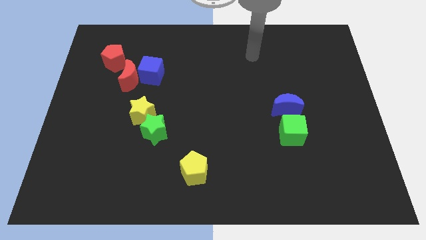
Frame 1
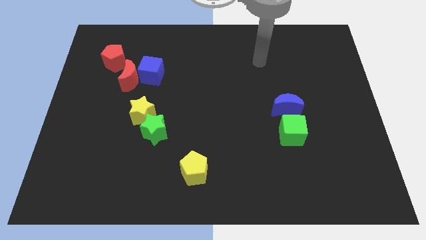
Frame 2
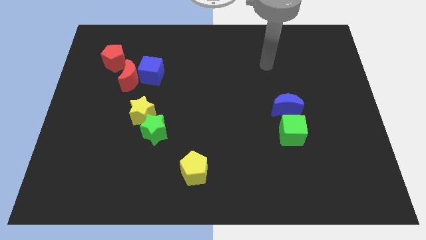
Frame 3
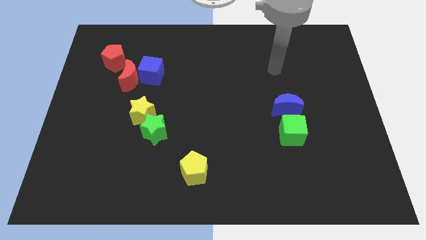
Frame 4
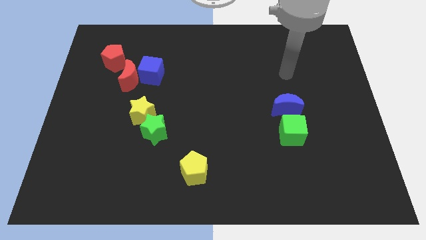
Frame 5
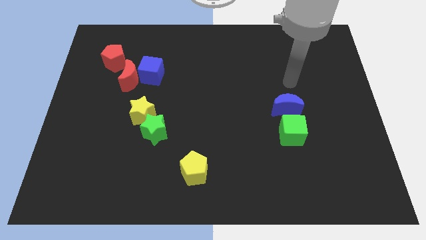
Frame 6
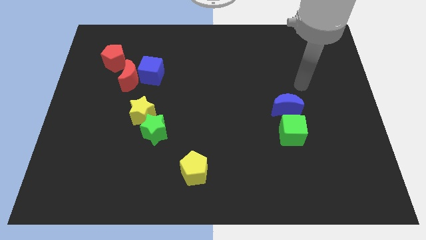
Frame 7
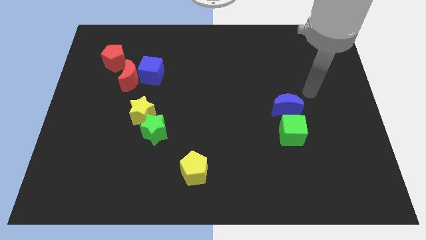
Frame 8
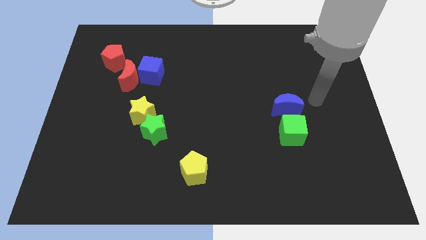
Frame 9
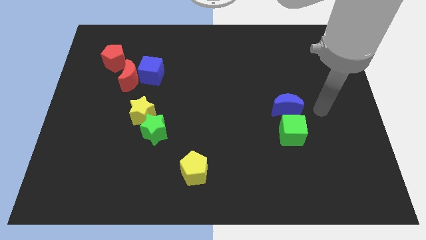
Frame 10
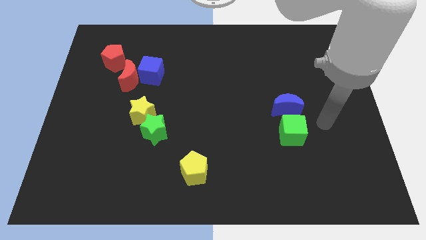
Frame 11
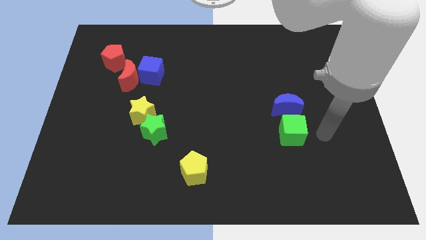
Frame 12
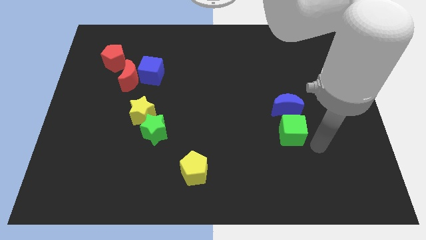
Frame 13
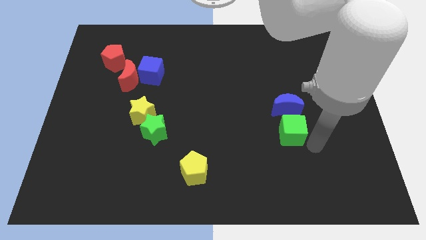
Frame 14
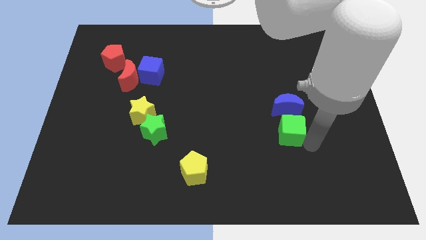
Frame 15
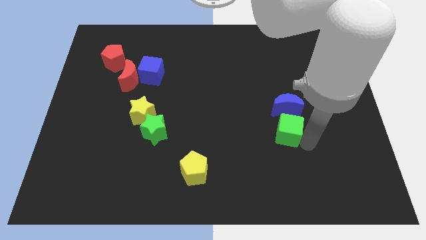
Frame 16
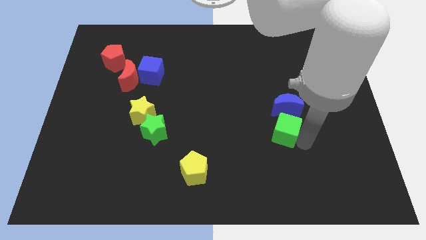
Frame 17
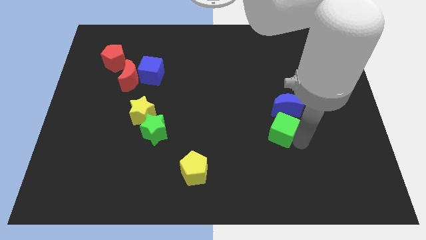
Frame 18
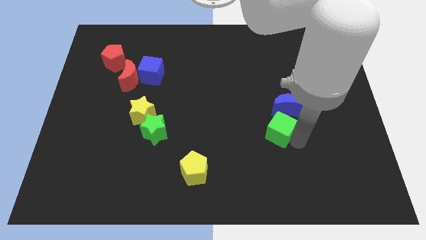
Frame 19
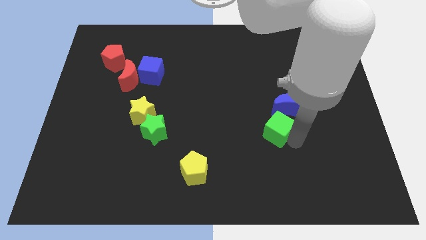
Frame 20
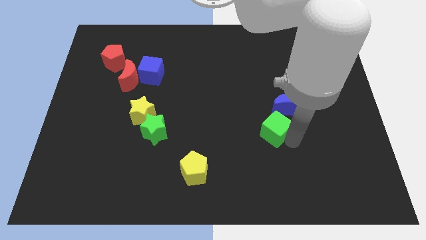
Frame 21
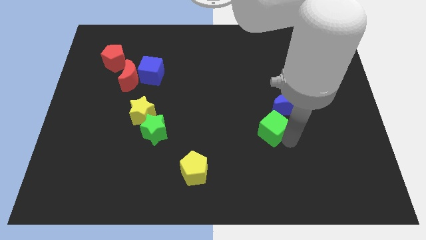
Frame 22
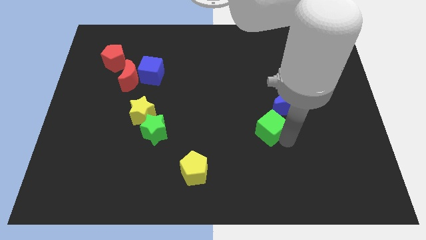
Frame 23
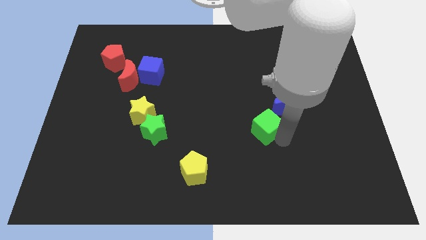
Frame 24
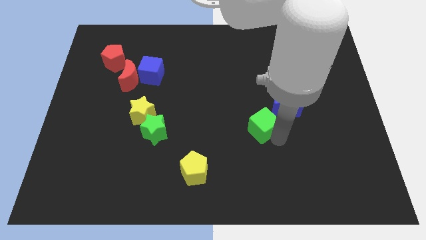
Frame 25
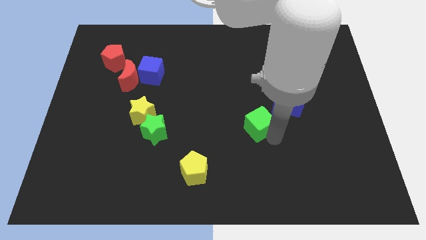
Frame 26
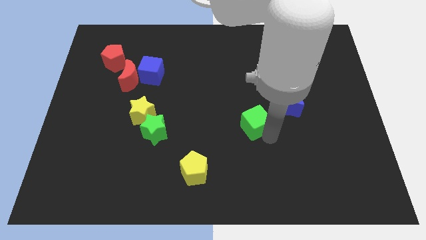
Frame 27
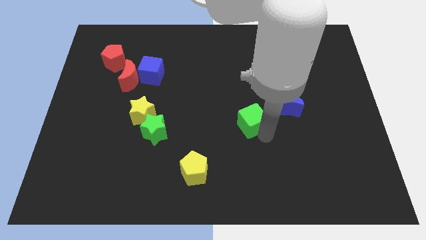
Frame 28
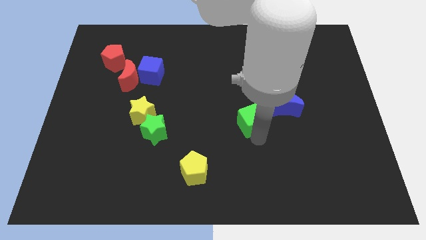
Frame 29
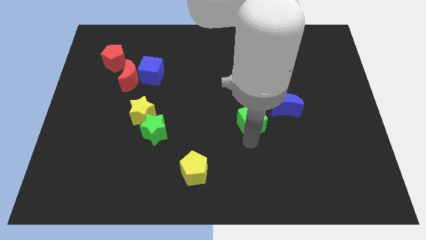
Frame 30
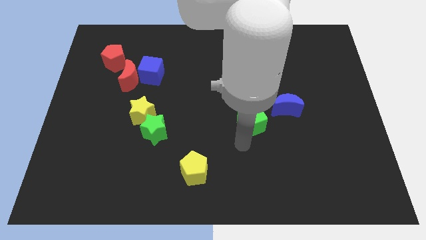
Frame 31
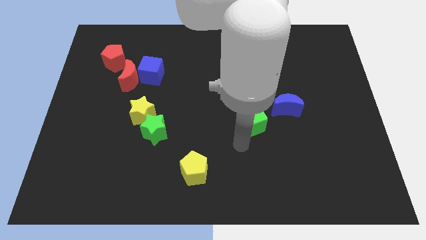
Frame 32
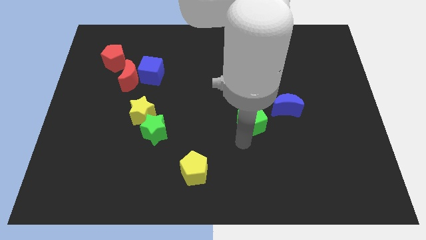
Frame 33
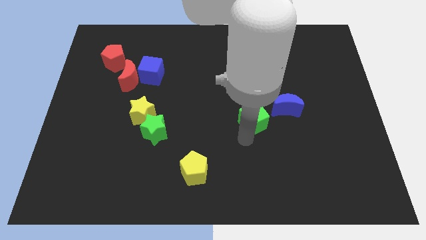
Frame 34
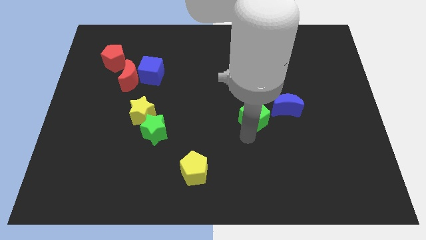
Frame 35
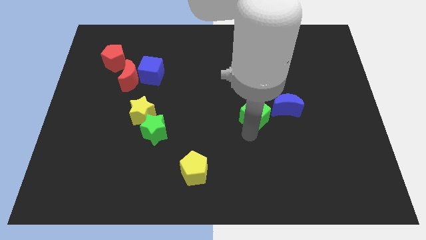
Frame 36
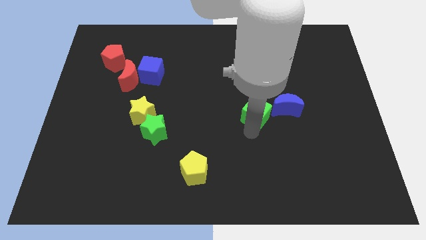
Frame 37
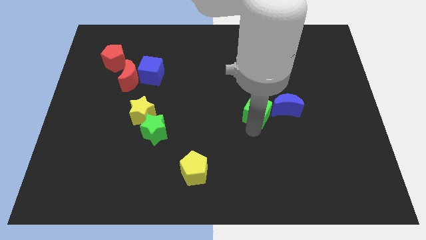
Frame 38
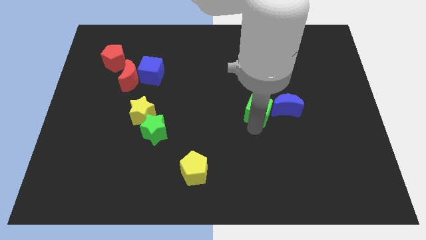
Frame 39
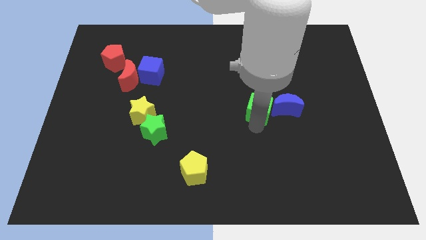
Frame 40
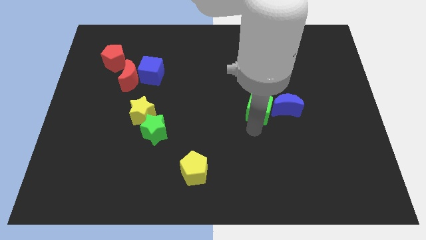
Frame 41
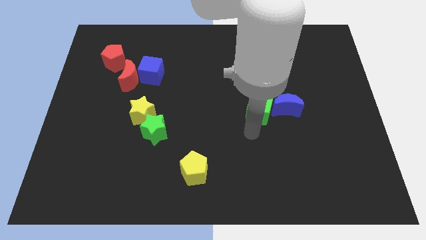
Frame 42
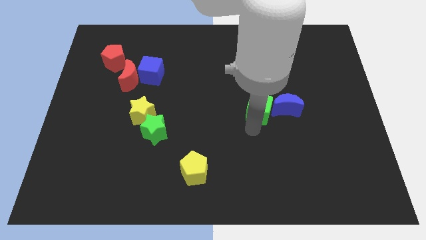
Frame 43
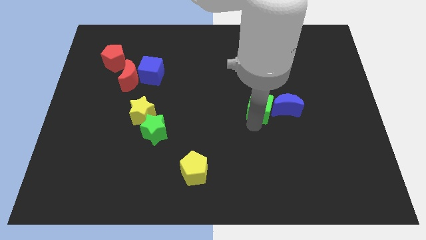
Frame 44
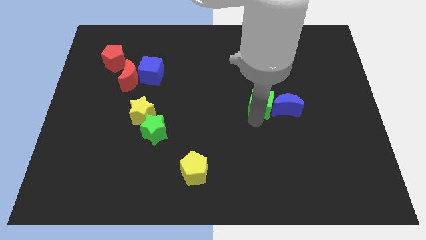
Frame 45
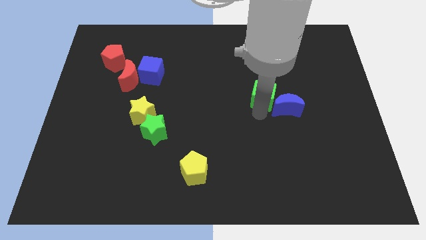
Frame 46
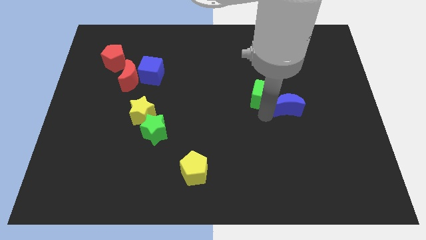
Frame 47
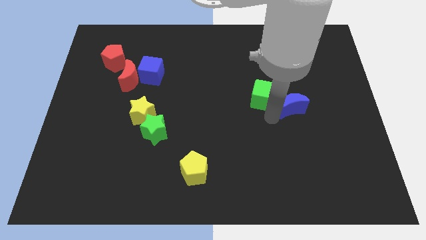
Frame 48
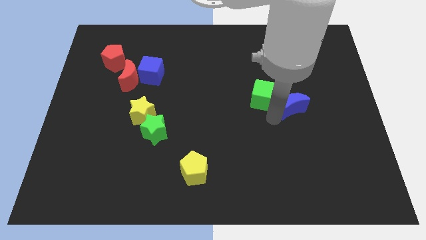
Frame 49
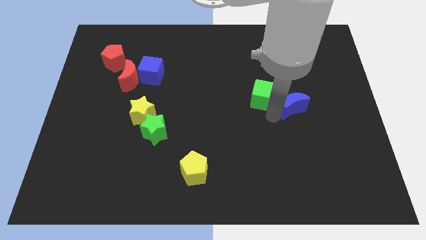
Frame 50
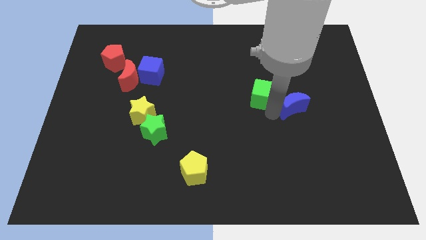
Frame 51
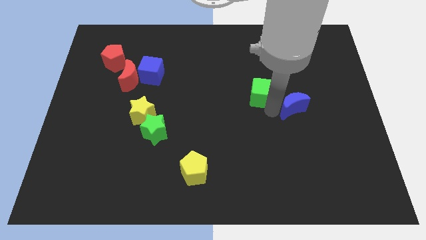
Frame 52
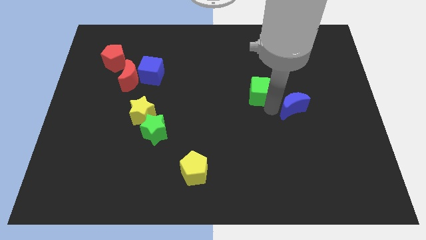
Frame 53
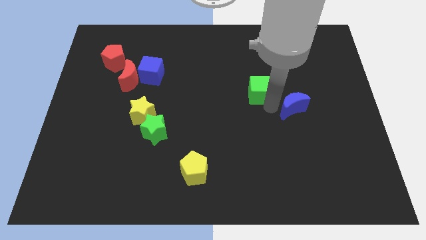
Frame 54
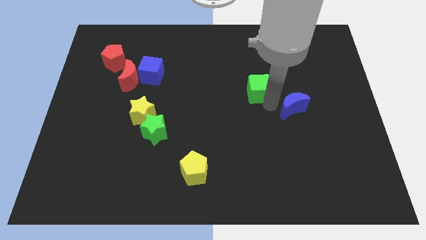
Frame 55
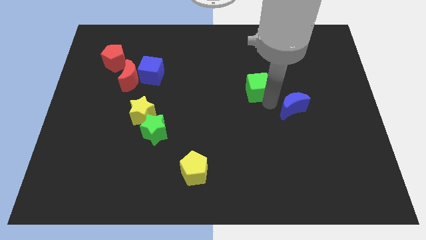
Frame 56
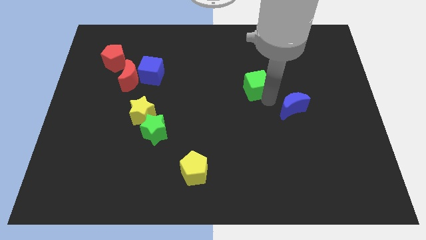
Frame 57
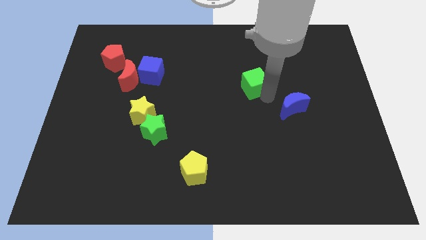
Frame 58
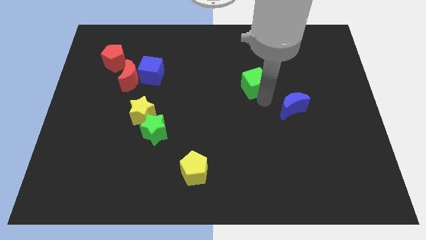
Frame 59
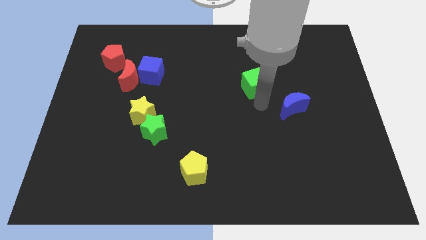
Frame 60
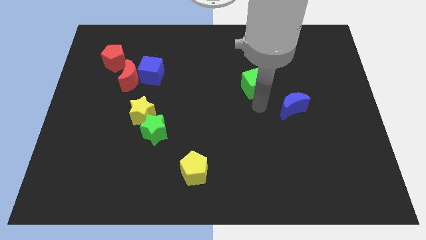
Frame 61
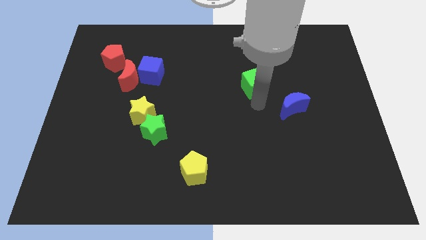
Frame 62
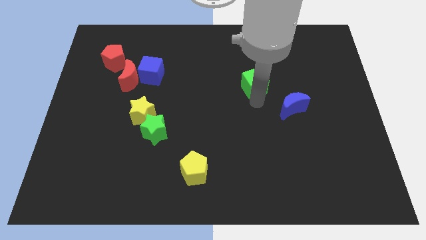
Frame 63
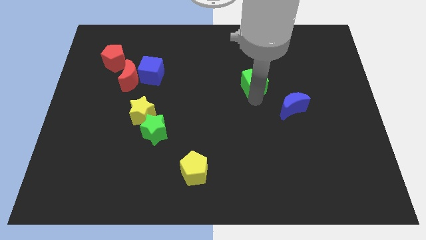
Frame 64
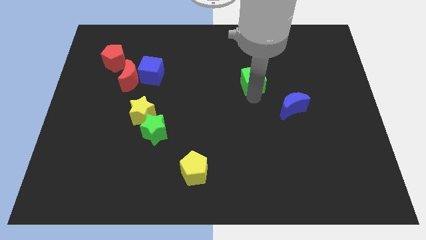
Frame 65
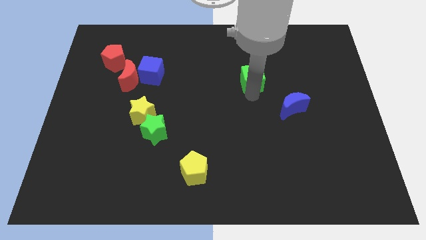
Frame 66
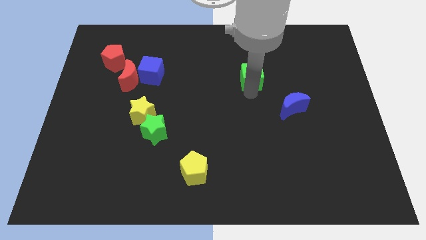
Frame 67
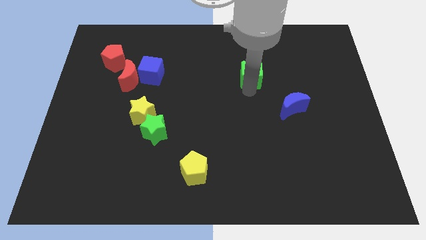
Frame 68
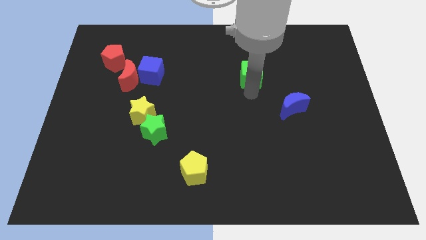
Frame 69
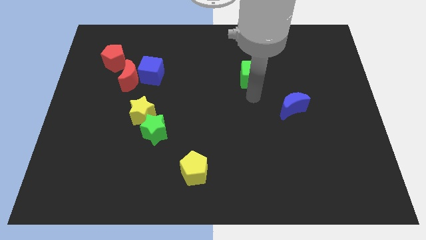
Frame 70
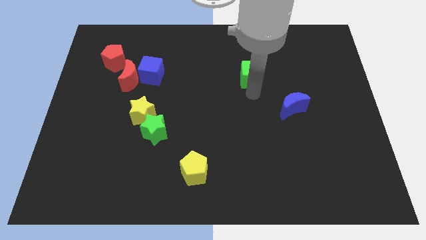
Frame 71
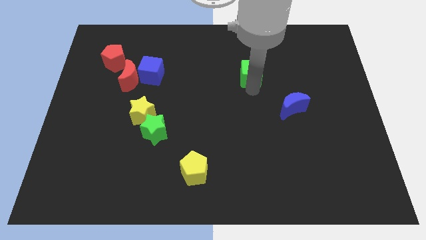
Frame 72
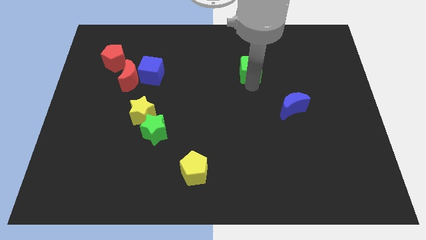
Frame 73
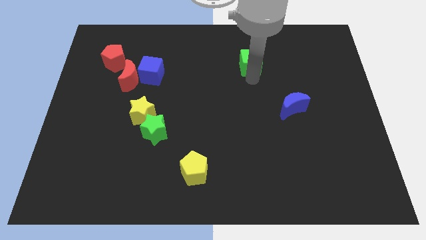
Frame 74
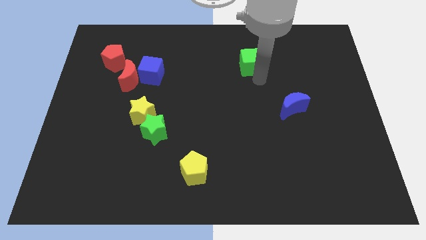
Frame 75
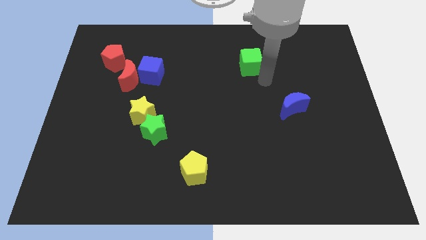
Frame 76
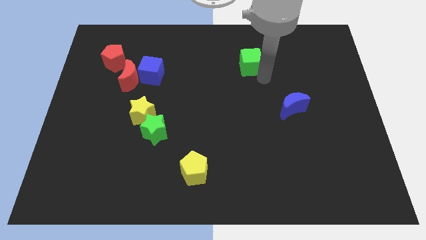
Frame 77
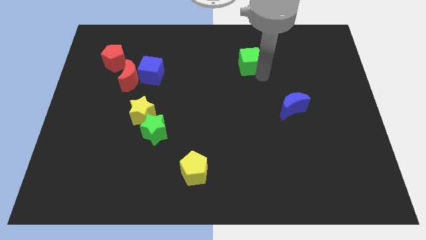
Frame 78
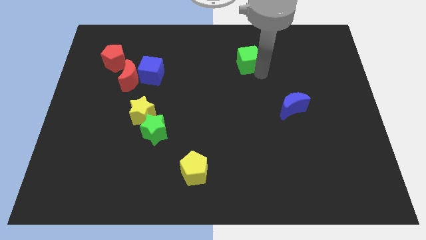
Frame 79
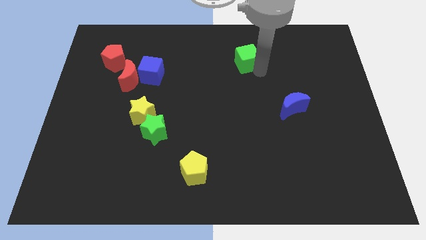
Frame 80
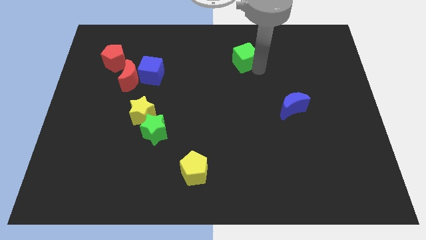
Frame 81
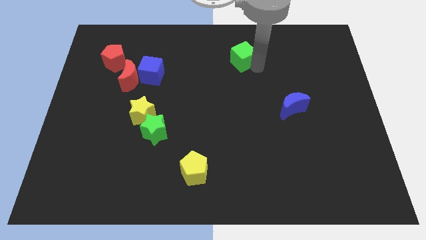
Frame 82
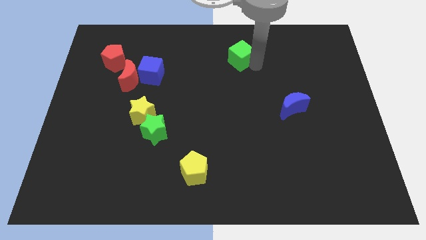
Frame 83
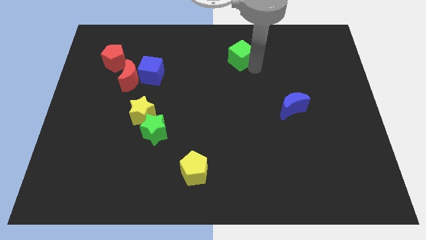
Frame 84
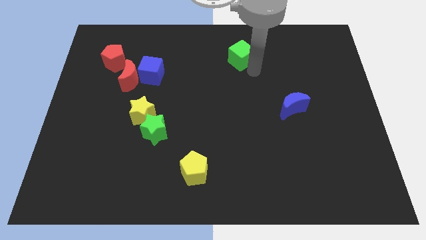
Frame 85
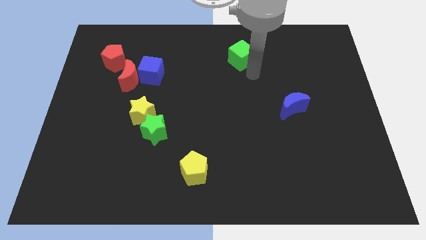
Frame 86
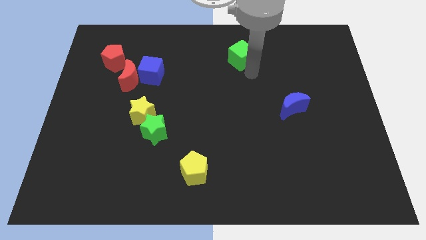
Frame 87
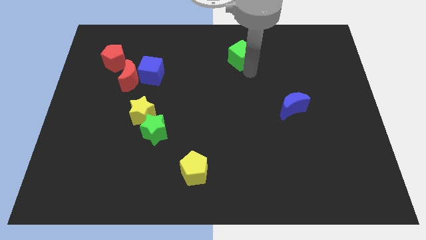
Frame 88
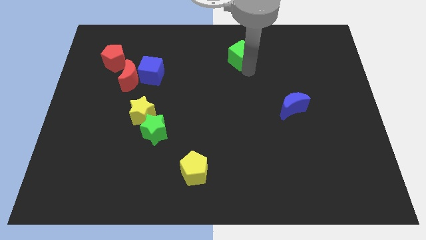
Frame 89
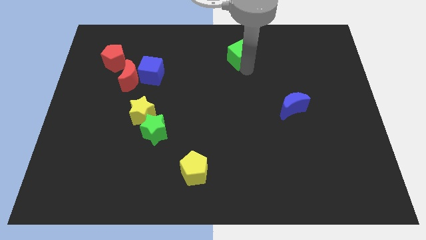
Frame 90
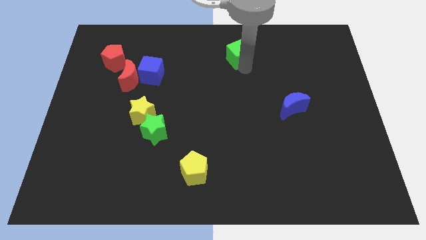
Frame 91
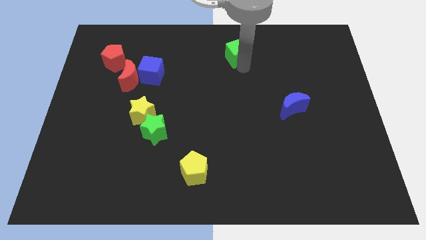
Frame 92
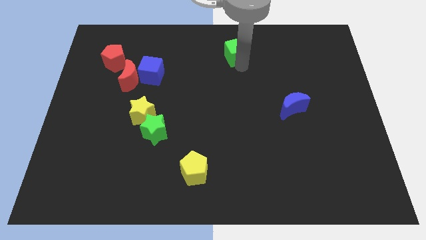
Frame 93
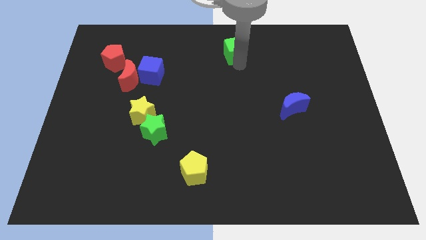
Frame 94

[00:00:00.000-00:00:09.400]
push the green cube to the top
